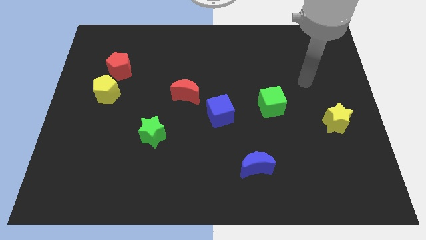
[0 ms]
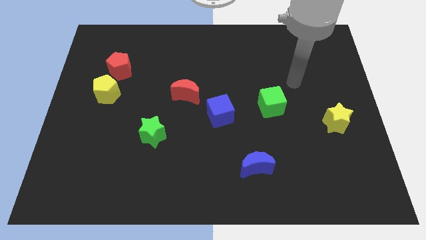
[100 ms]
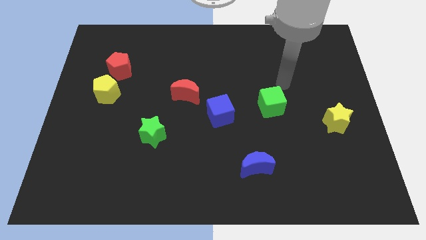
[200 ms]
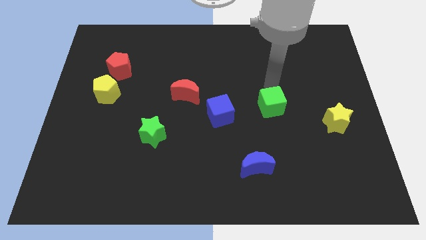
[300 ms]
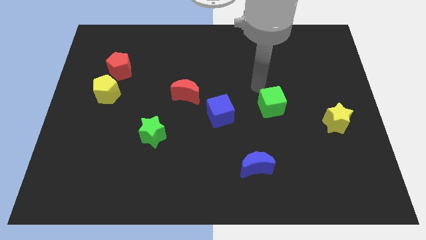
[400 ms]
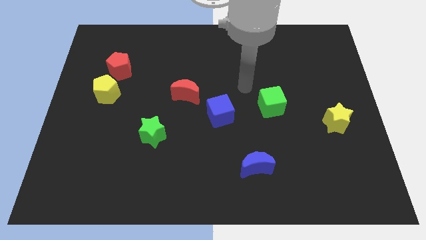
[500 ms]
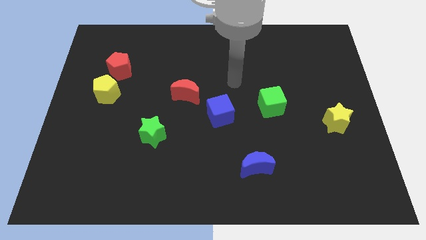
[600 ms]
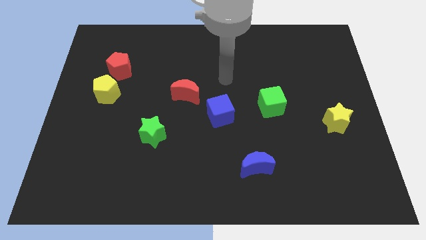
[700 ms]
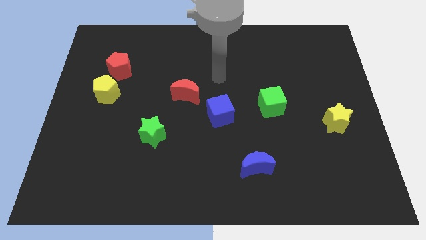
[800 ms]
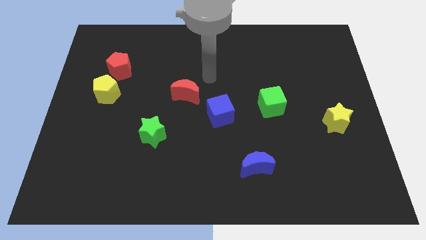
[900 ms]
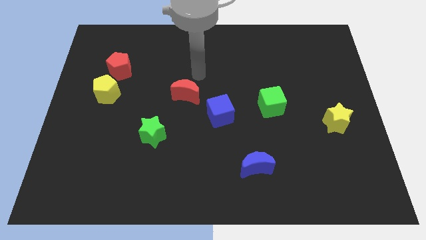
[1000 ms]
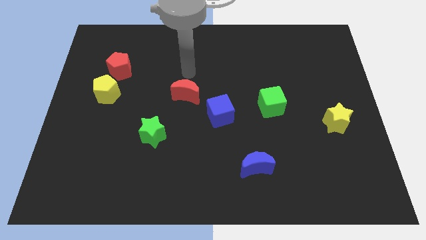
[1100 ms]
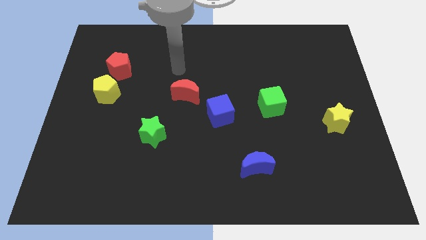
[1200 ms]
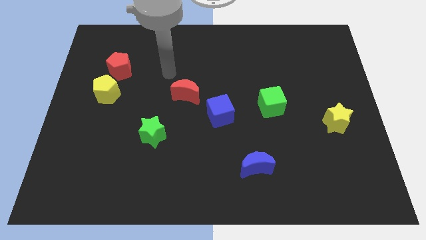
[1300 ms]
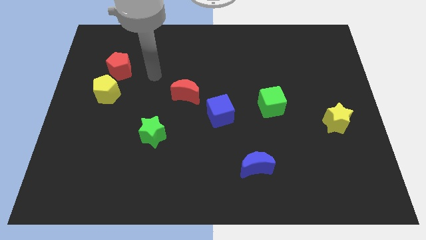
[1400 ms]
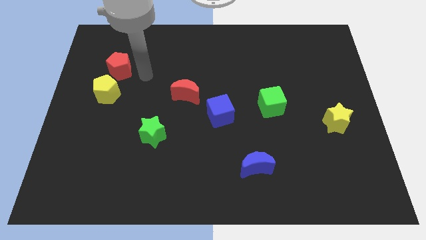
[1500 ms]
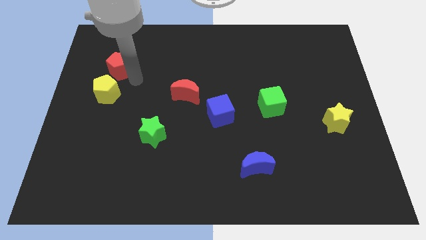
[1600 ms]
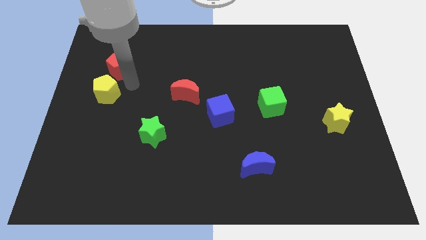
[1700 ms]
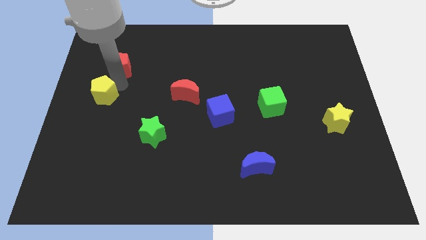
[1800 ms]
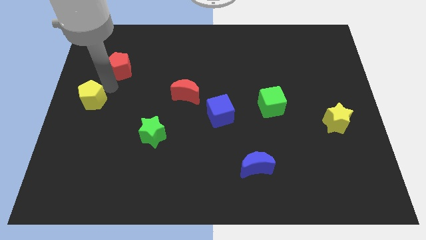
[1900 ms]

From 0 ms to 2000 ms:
move the red pentagon away from the yellow pentagon

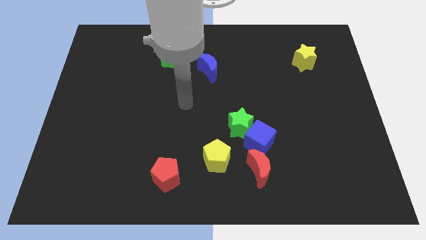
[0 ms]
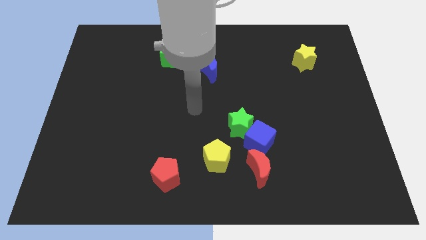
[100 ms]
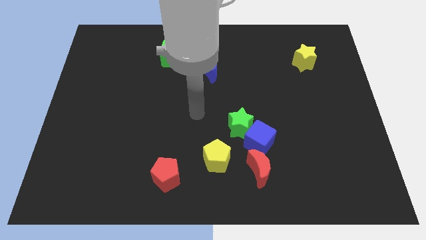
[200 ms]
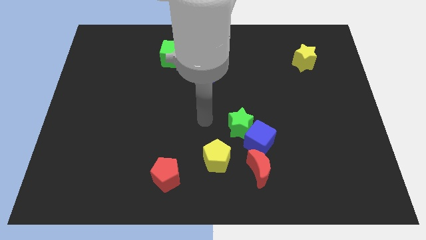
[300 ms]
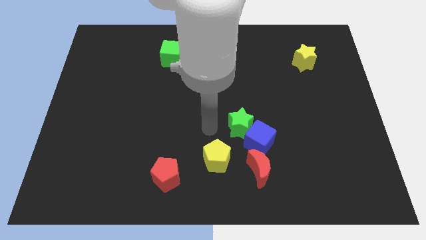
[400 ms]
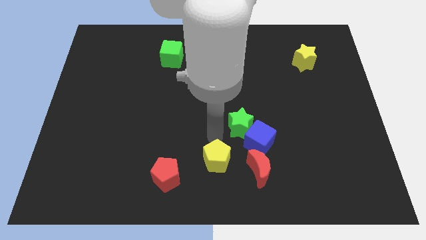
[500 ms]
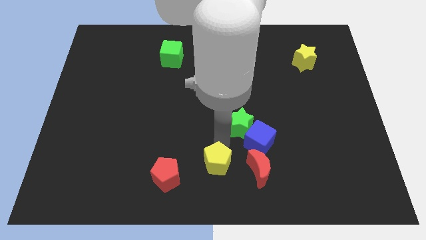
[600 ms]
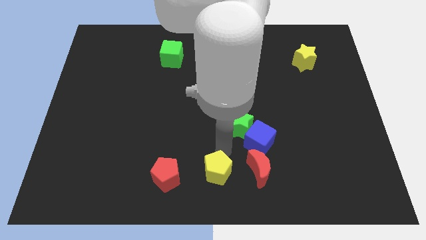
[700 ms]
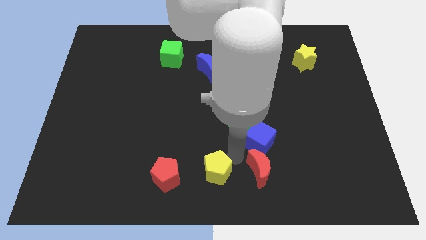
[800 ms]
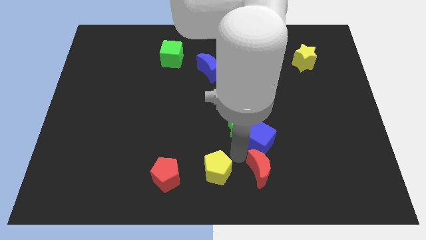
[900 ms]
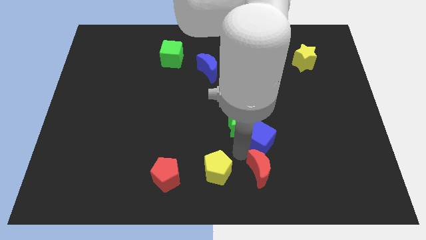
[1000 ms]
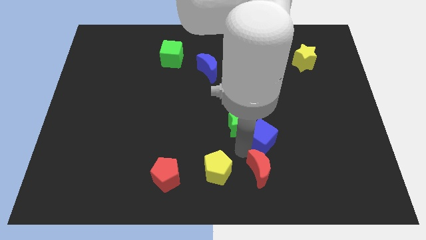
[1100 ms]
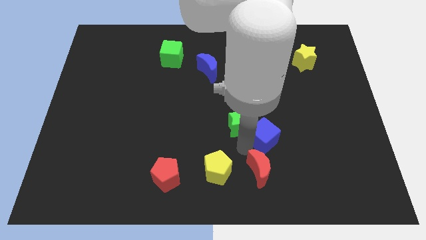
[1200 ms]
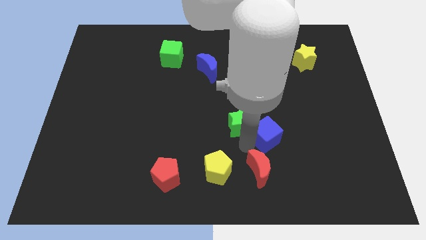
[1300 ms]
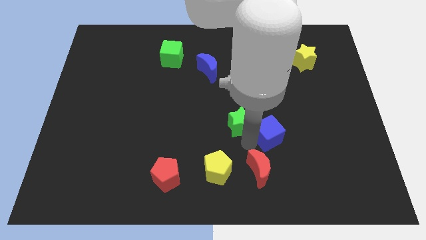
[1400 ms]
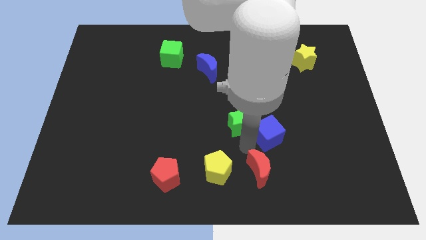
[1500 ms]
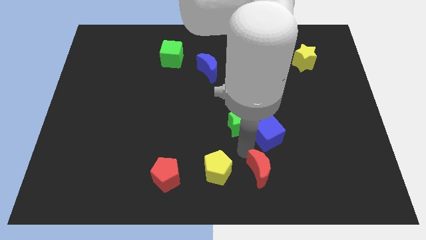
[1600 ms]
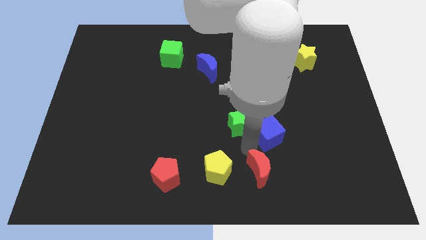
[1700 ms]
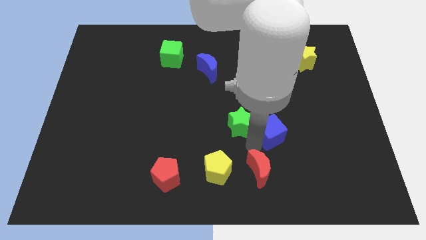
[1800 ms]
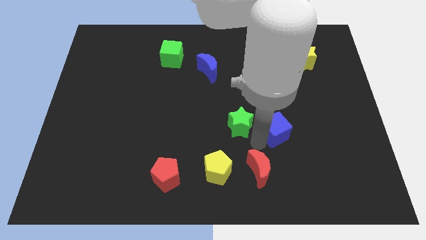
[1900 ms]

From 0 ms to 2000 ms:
move the blue cube away from the clump

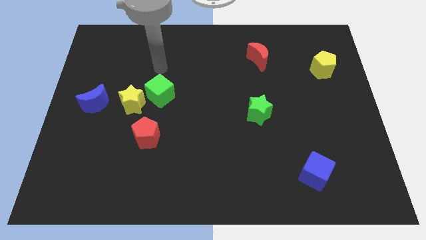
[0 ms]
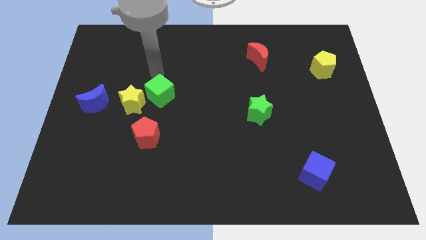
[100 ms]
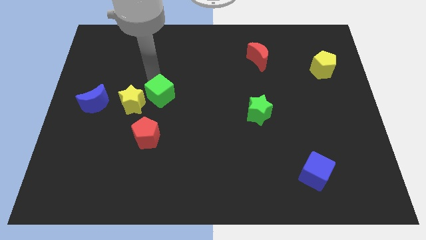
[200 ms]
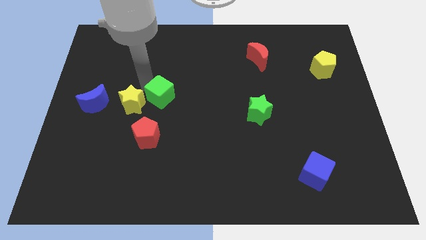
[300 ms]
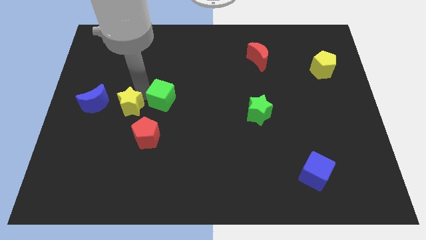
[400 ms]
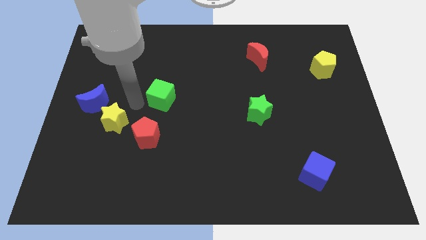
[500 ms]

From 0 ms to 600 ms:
pull the green cube apart from the yellow star

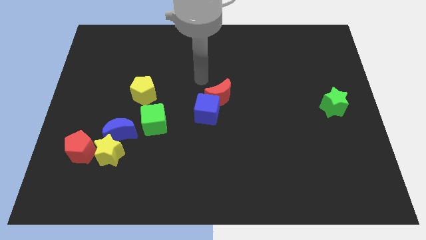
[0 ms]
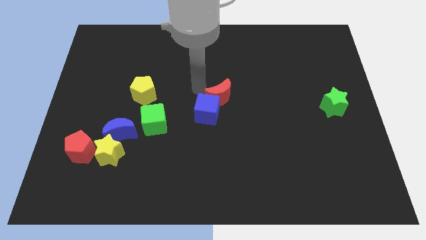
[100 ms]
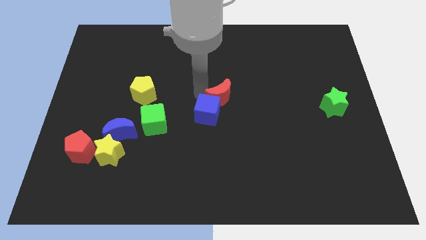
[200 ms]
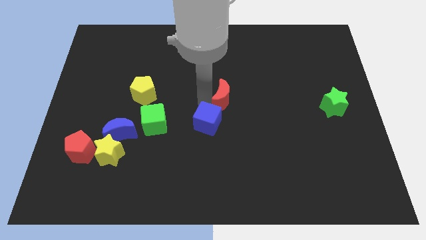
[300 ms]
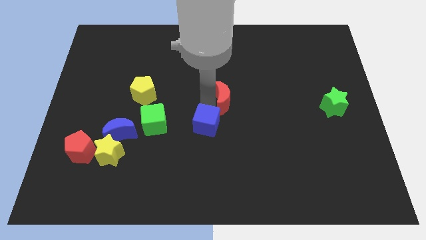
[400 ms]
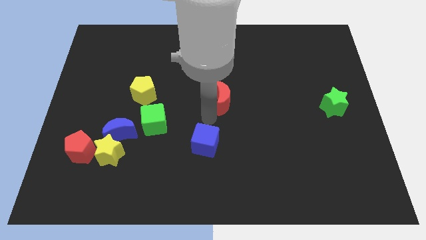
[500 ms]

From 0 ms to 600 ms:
separate the red moon from the blue cube

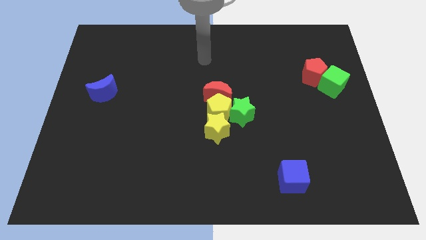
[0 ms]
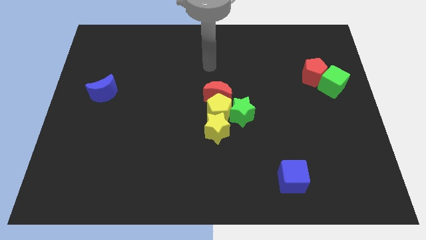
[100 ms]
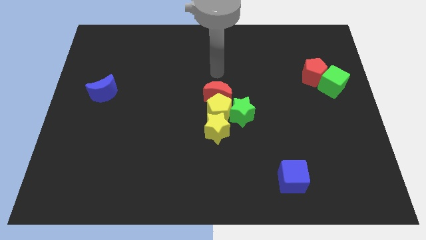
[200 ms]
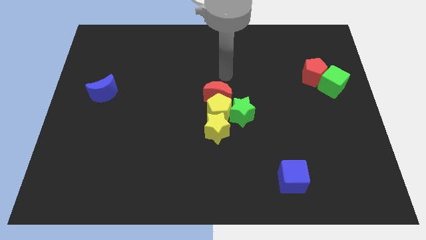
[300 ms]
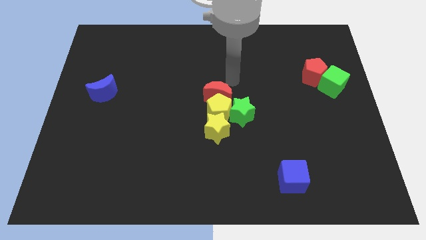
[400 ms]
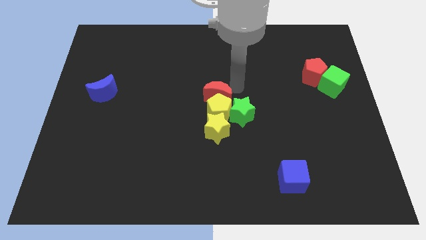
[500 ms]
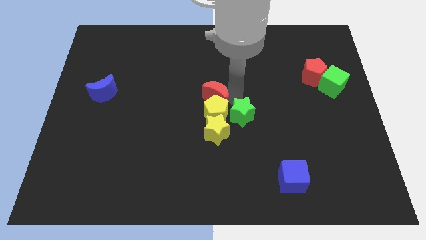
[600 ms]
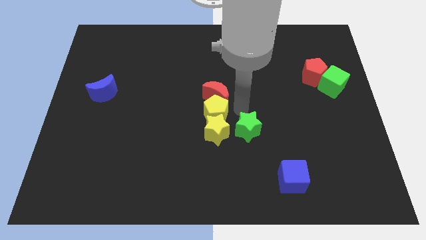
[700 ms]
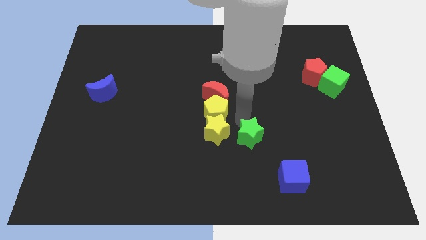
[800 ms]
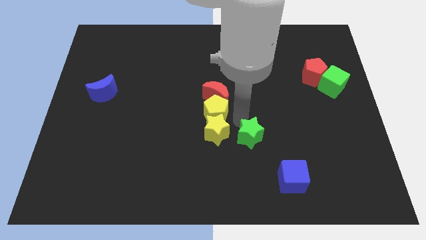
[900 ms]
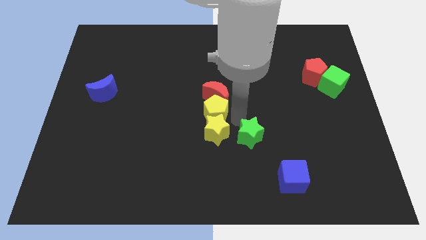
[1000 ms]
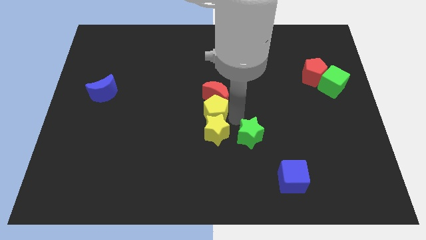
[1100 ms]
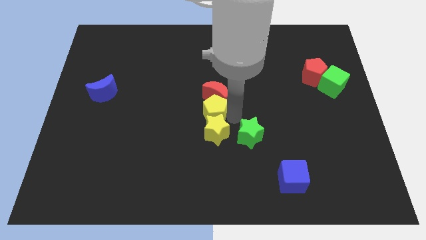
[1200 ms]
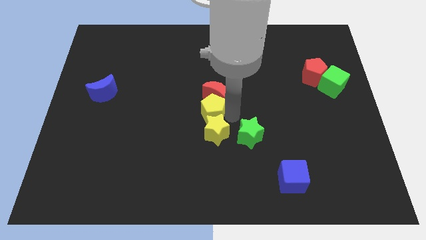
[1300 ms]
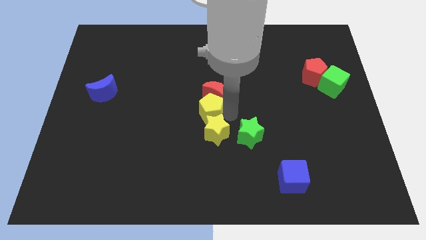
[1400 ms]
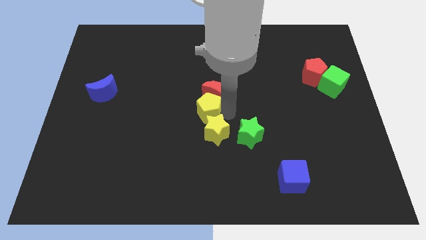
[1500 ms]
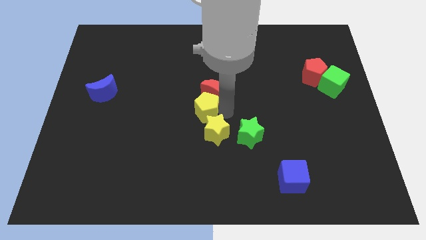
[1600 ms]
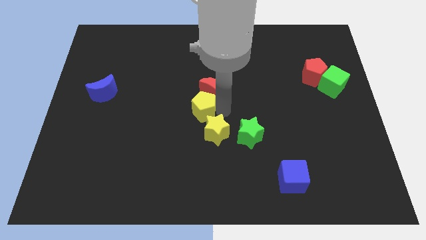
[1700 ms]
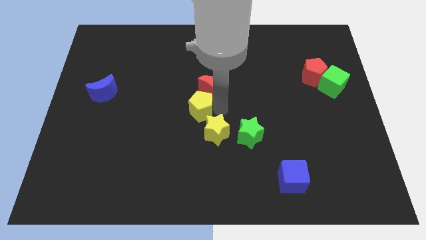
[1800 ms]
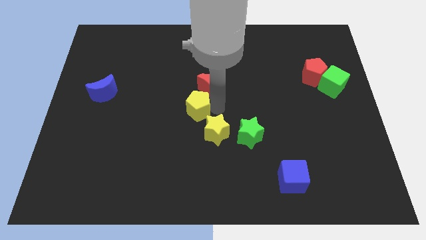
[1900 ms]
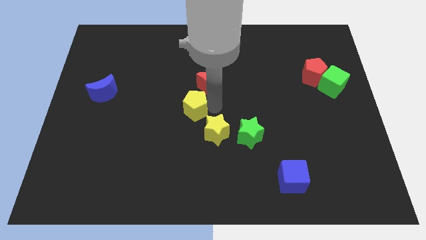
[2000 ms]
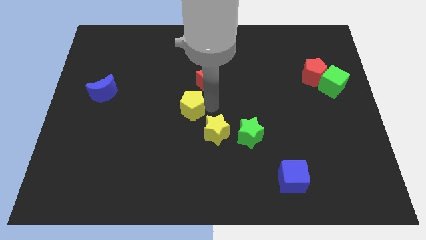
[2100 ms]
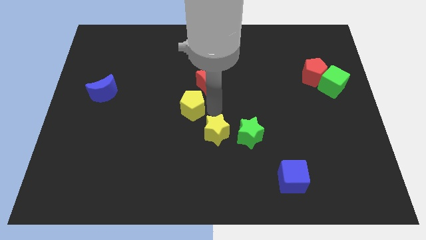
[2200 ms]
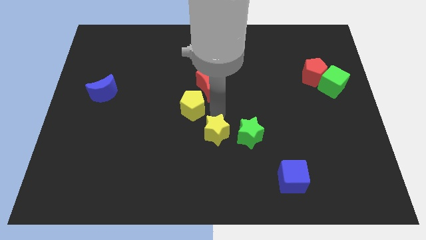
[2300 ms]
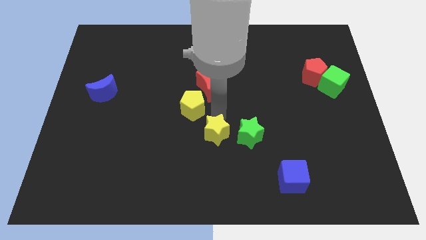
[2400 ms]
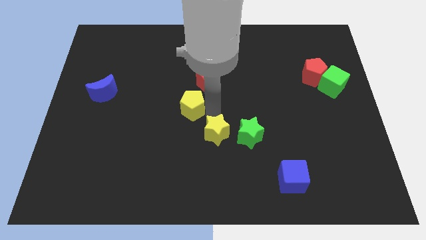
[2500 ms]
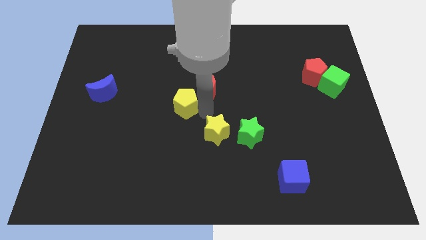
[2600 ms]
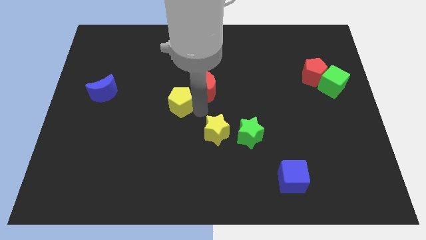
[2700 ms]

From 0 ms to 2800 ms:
pull the yellow pentagon apart from the red moon, green star, and yellow star

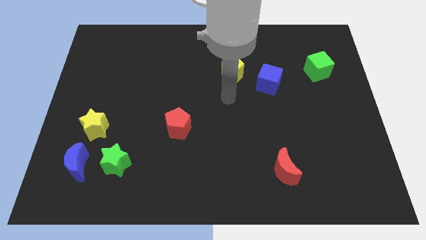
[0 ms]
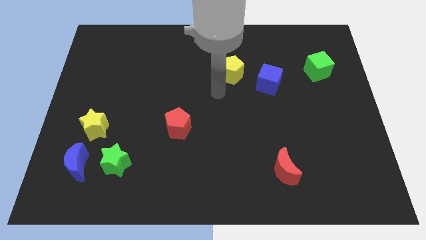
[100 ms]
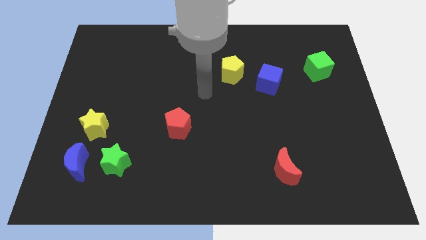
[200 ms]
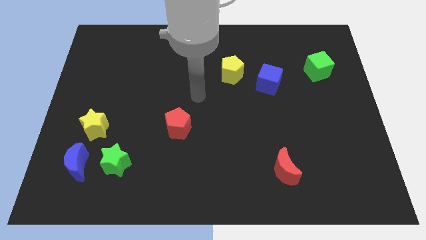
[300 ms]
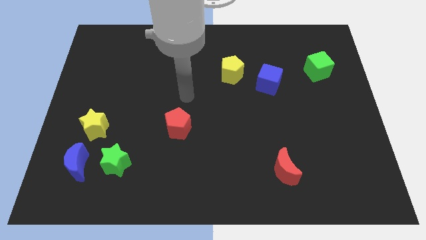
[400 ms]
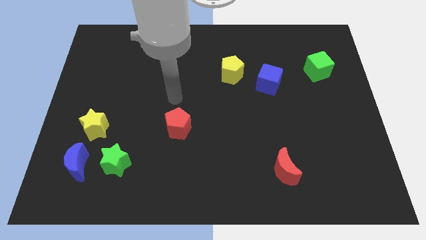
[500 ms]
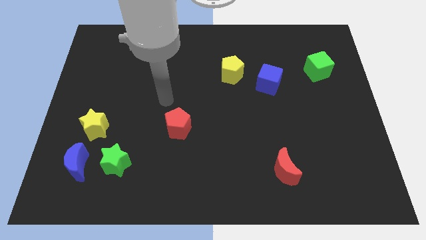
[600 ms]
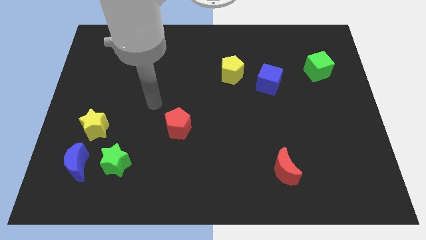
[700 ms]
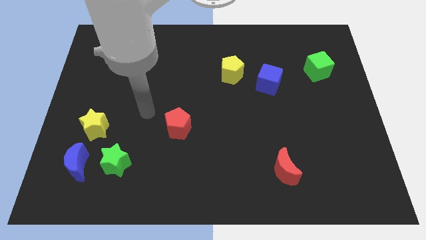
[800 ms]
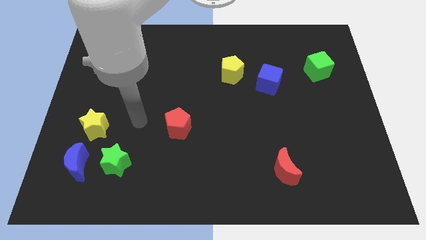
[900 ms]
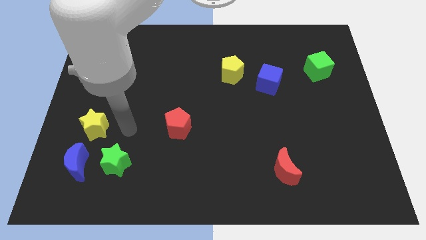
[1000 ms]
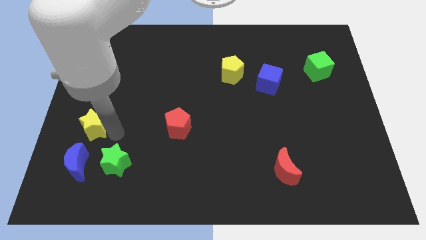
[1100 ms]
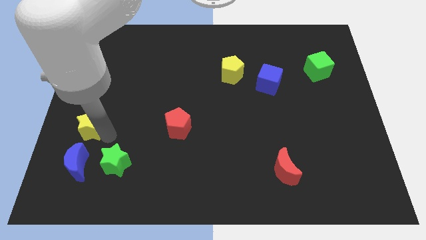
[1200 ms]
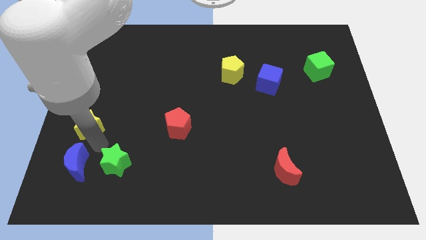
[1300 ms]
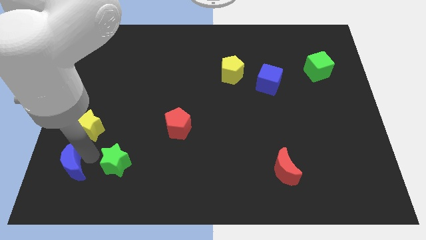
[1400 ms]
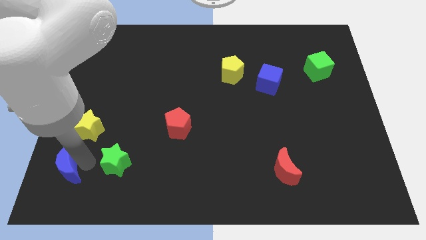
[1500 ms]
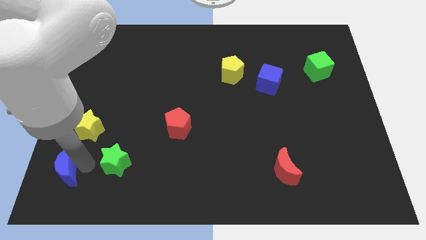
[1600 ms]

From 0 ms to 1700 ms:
move the green star away from the blue moon
